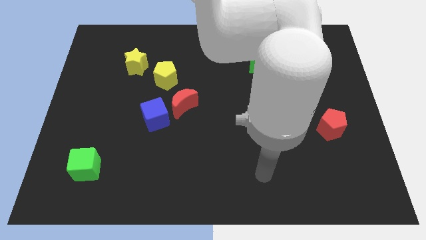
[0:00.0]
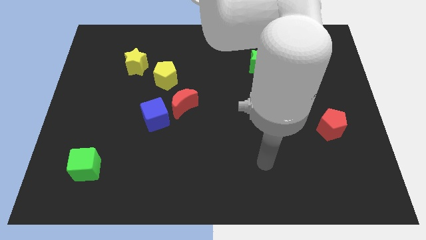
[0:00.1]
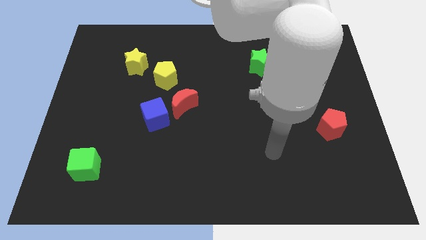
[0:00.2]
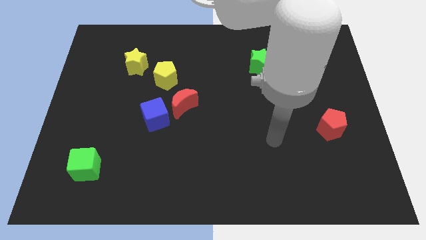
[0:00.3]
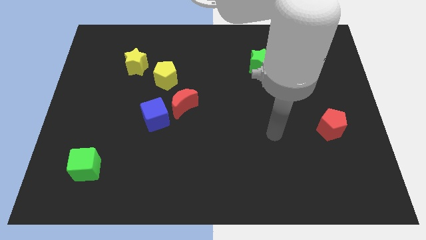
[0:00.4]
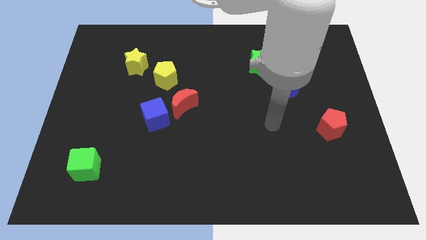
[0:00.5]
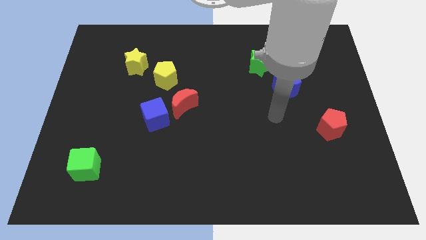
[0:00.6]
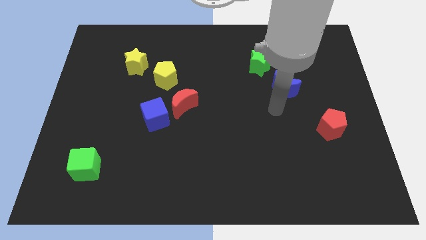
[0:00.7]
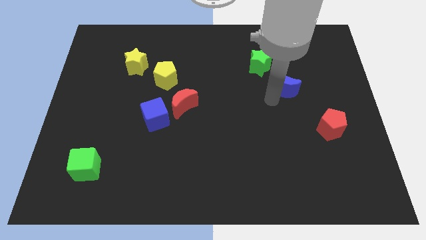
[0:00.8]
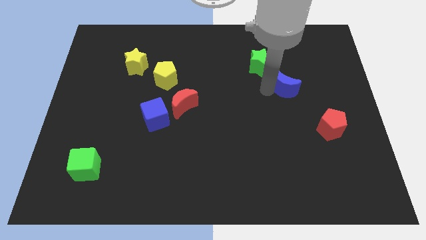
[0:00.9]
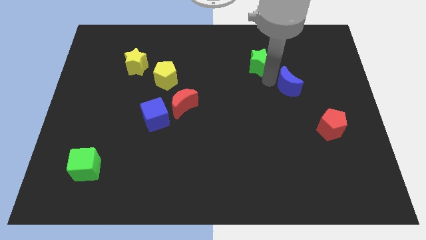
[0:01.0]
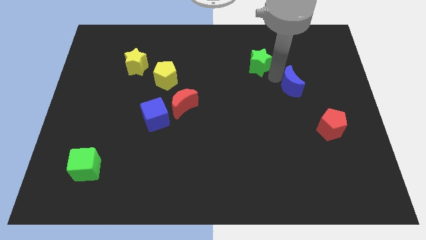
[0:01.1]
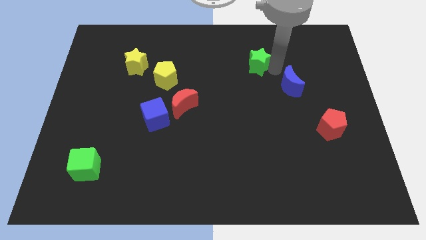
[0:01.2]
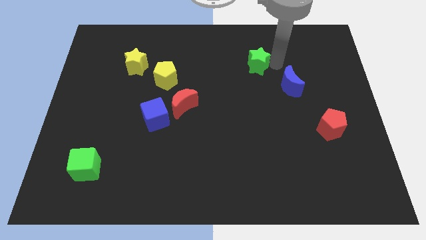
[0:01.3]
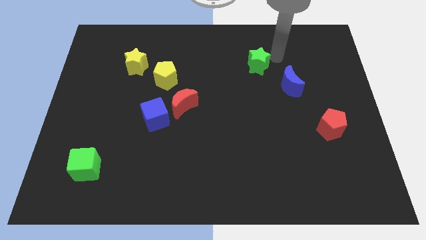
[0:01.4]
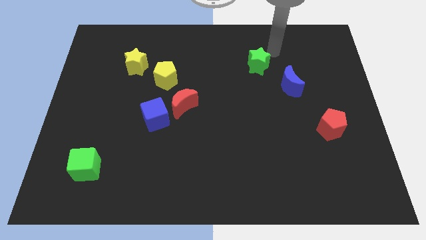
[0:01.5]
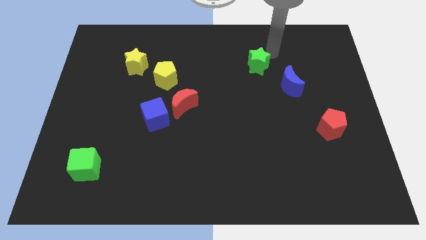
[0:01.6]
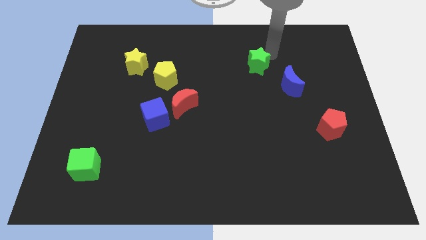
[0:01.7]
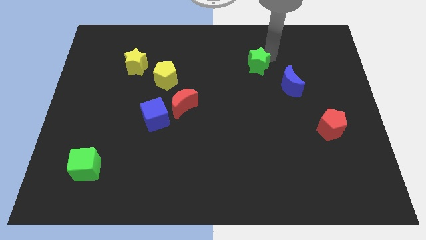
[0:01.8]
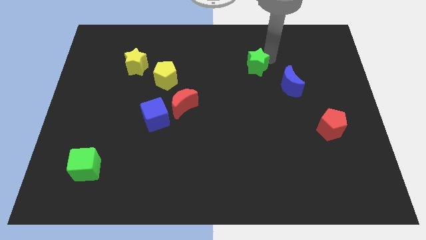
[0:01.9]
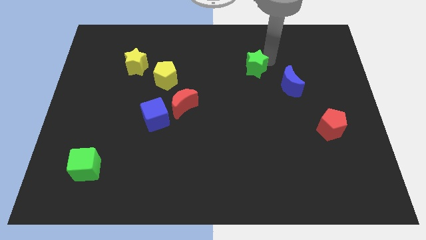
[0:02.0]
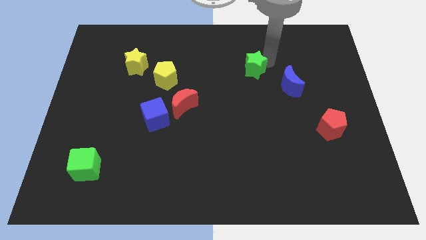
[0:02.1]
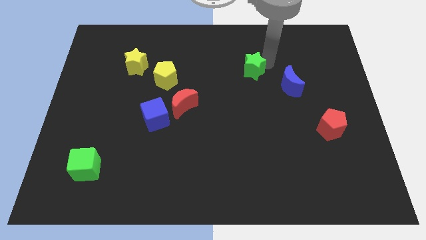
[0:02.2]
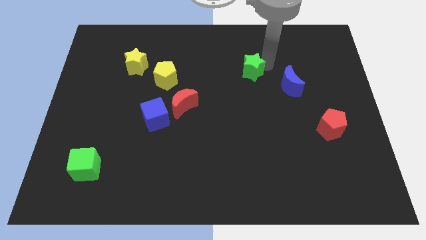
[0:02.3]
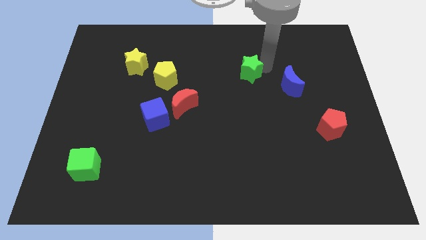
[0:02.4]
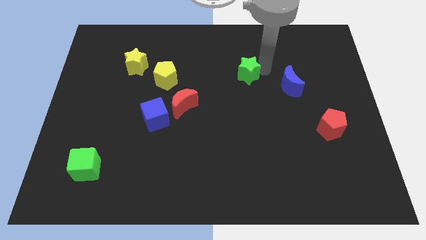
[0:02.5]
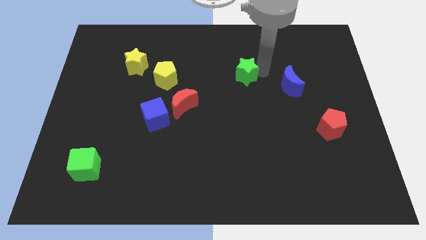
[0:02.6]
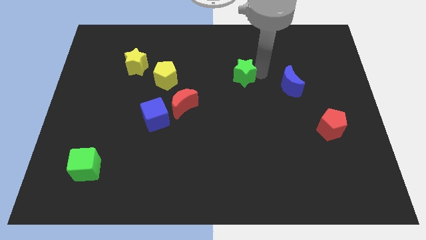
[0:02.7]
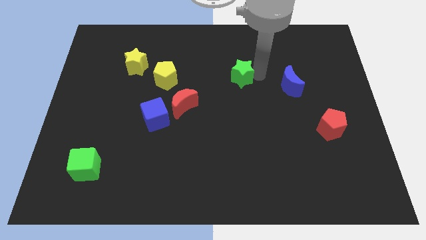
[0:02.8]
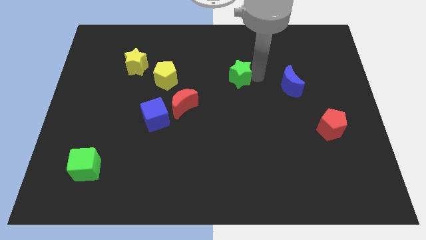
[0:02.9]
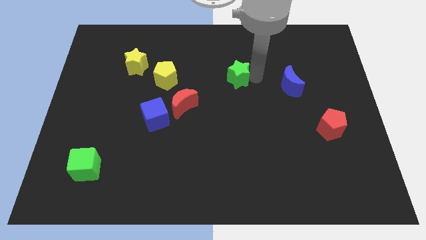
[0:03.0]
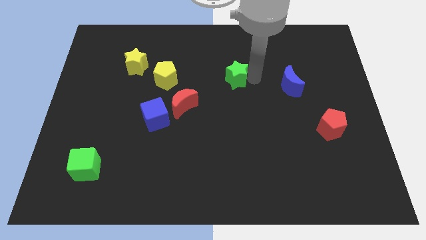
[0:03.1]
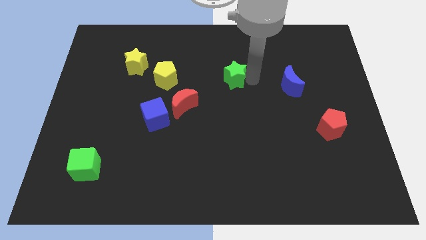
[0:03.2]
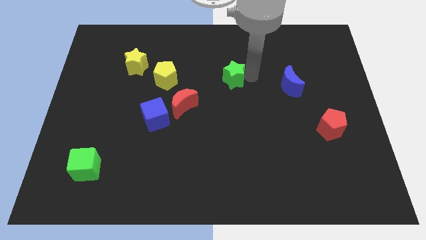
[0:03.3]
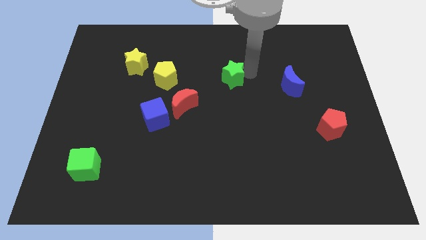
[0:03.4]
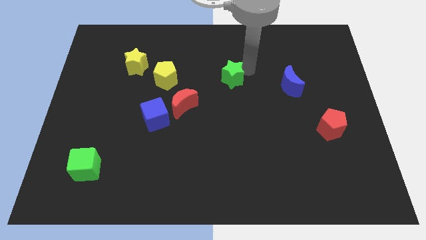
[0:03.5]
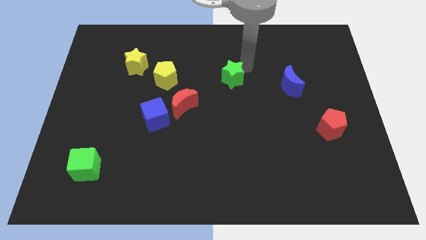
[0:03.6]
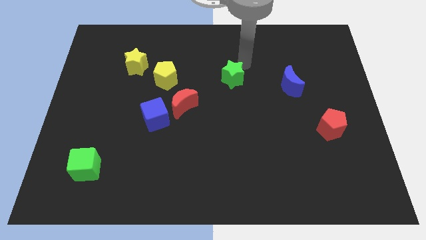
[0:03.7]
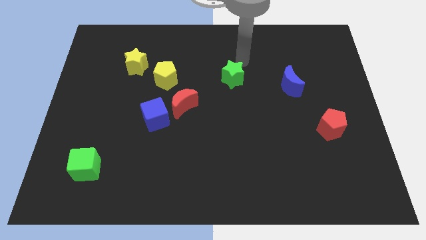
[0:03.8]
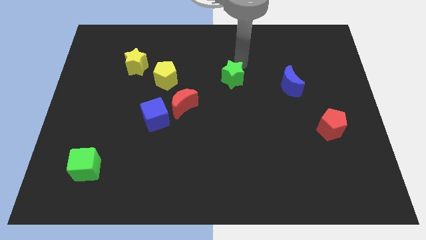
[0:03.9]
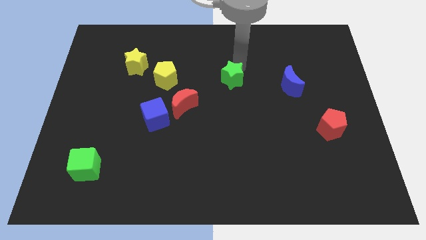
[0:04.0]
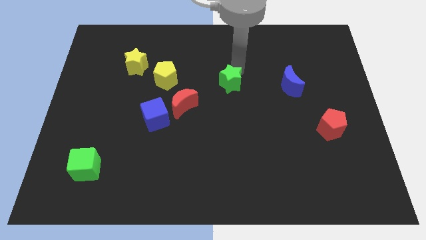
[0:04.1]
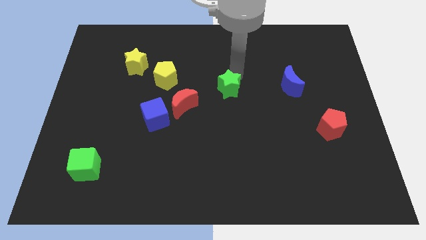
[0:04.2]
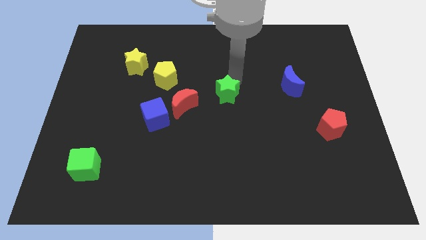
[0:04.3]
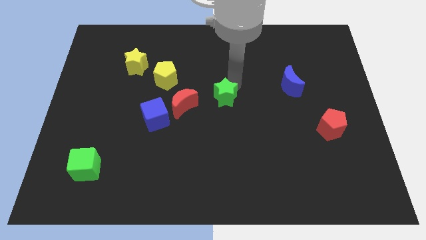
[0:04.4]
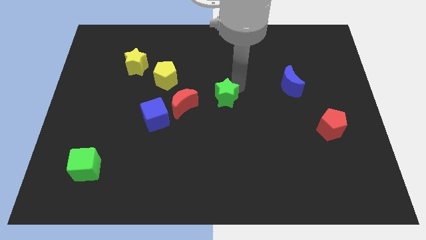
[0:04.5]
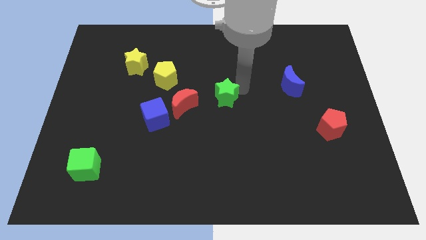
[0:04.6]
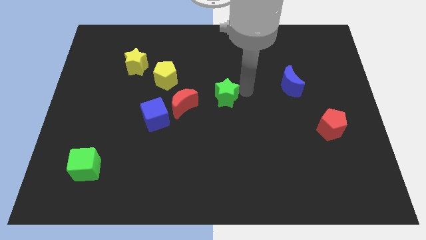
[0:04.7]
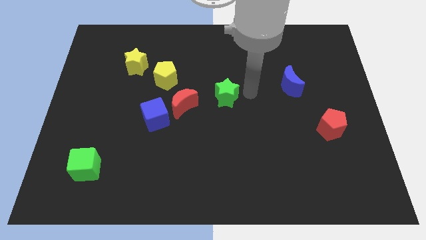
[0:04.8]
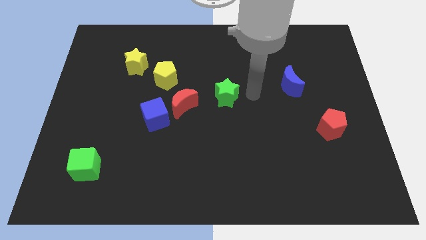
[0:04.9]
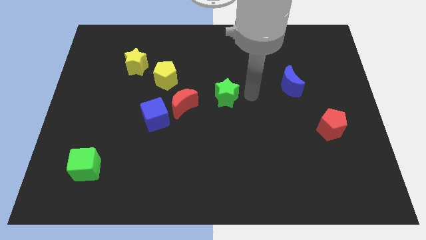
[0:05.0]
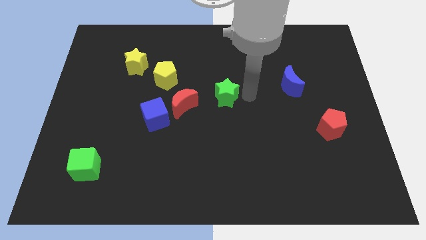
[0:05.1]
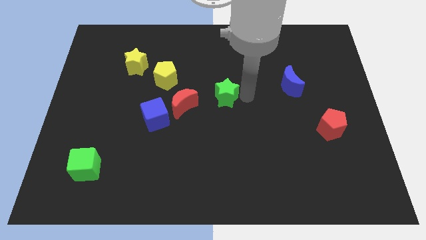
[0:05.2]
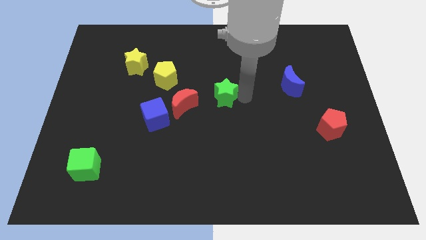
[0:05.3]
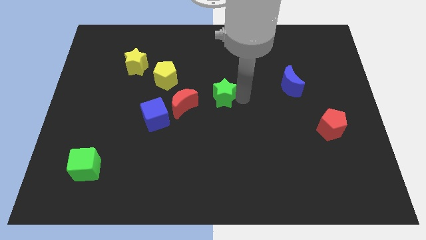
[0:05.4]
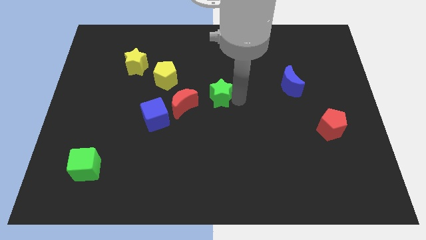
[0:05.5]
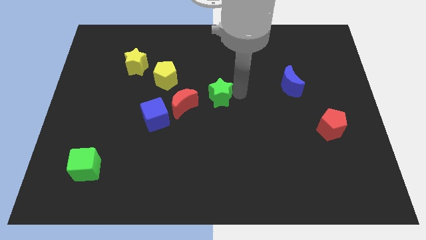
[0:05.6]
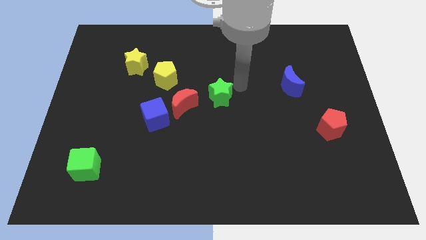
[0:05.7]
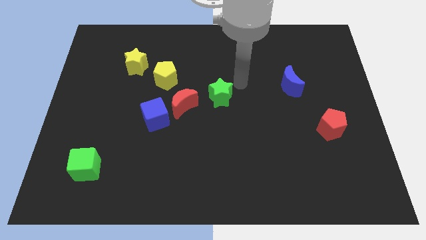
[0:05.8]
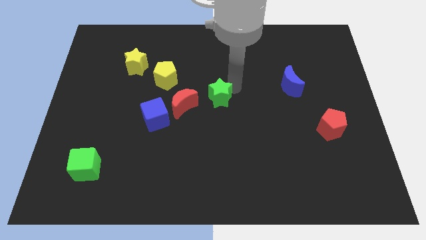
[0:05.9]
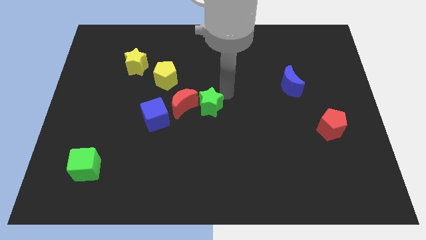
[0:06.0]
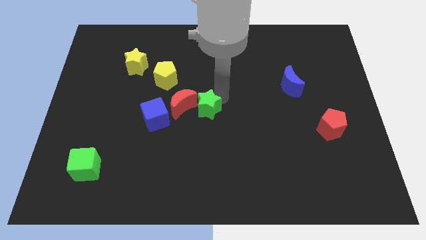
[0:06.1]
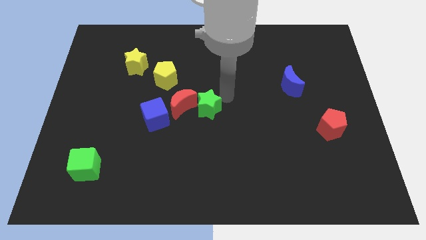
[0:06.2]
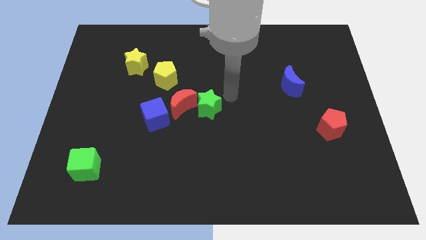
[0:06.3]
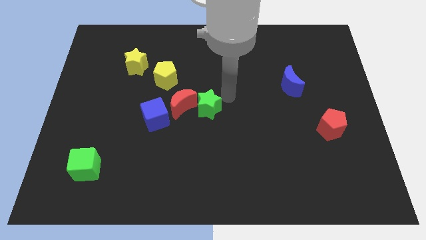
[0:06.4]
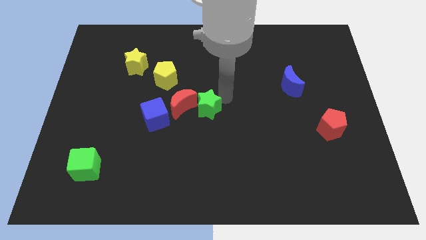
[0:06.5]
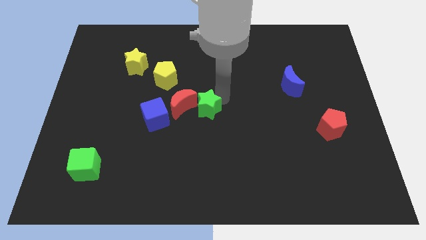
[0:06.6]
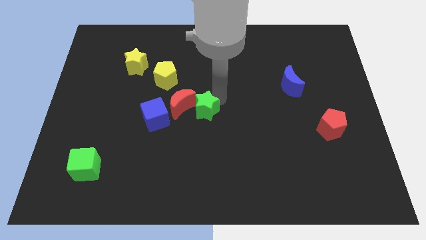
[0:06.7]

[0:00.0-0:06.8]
slide the green star diagonally downwards and to the left

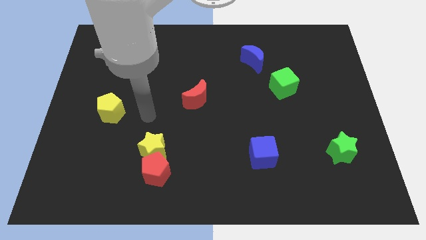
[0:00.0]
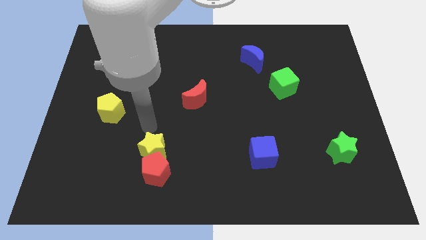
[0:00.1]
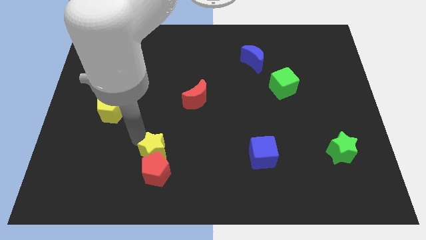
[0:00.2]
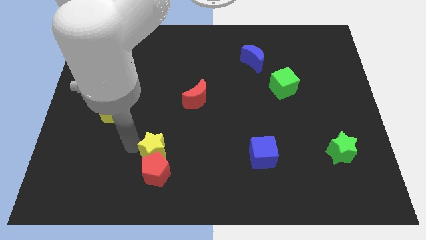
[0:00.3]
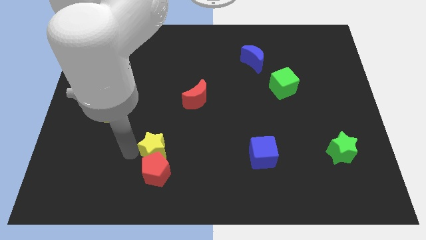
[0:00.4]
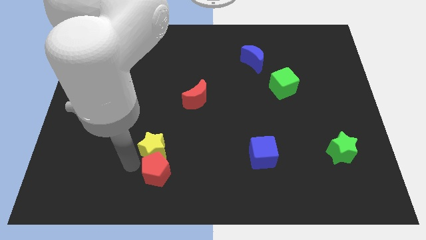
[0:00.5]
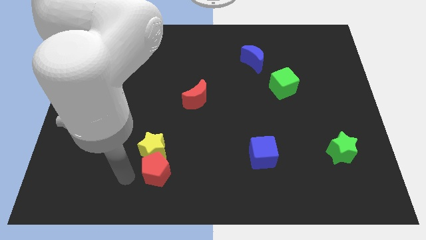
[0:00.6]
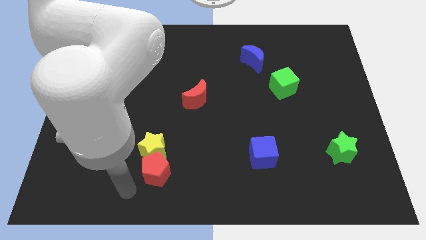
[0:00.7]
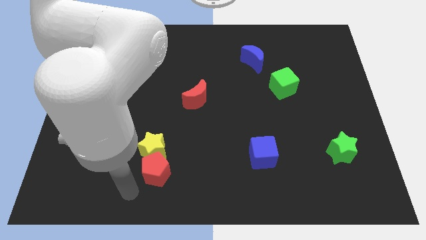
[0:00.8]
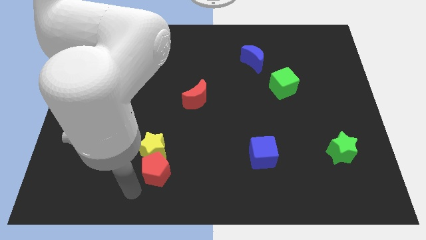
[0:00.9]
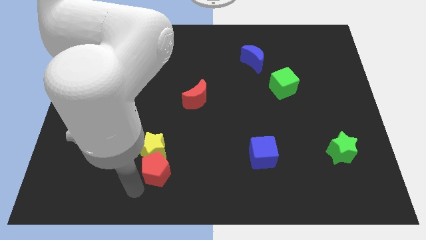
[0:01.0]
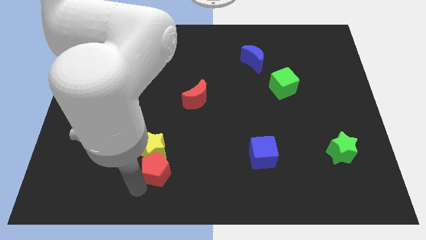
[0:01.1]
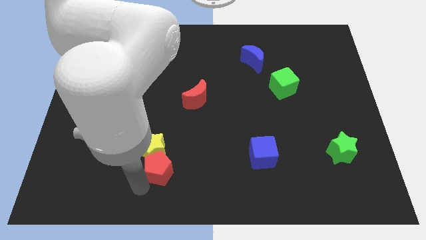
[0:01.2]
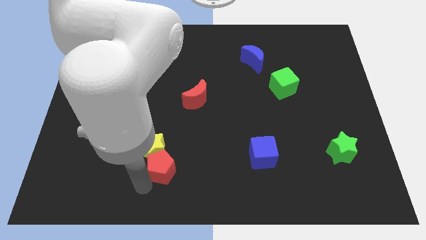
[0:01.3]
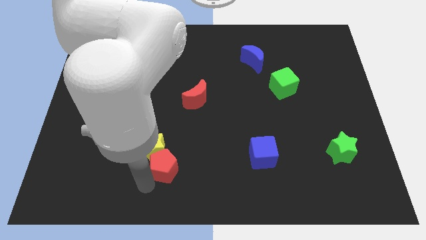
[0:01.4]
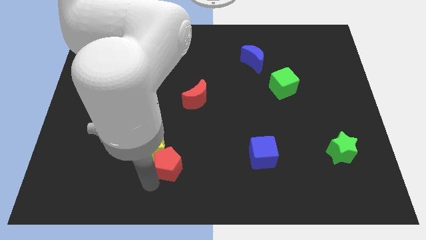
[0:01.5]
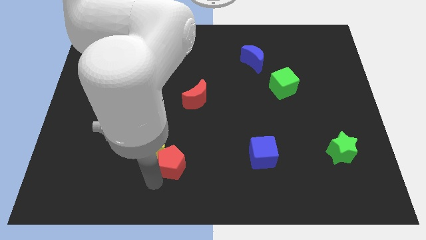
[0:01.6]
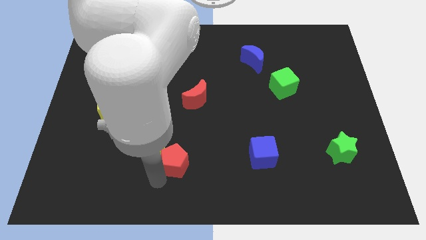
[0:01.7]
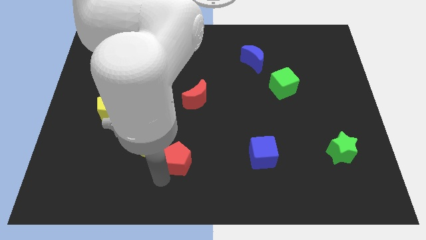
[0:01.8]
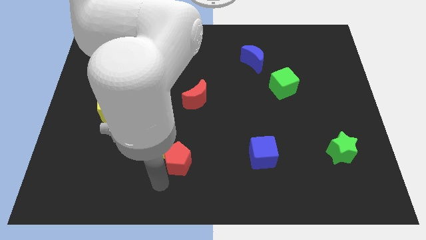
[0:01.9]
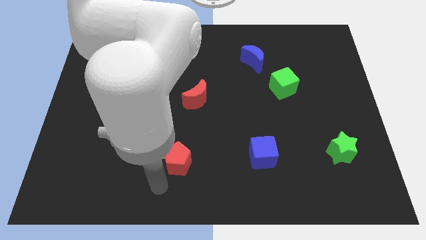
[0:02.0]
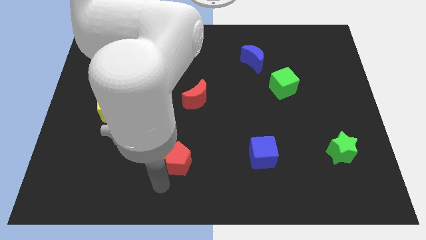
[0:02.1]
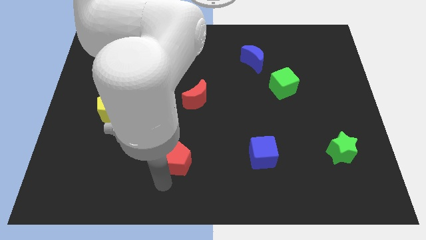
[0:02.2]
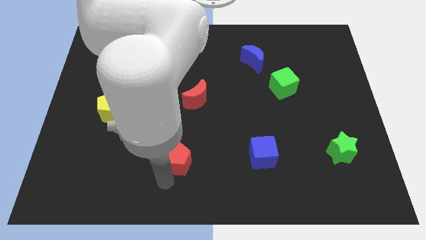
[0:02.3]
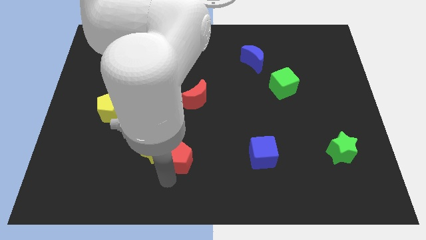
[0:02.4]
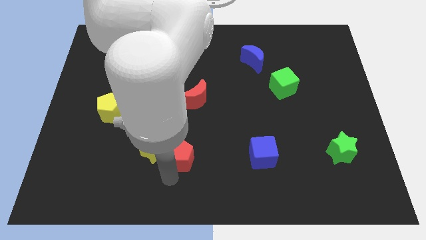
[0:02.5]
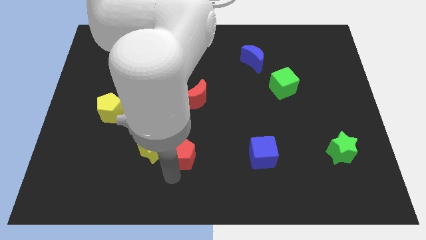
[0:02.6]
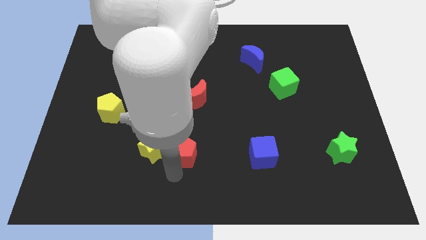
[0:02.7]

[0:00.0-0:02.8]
slide the red pentagon a little bit up and right
